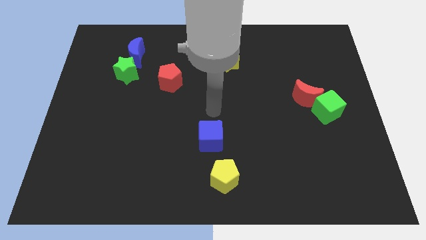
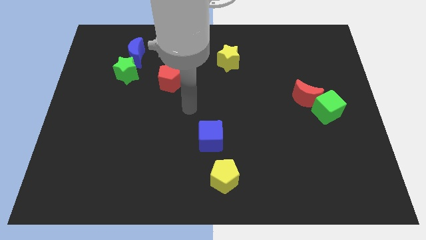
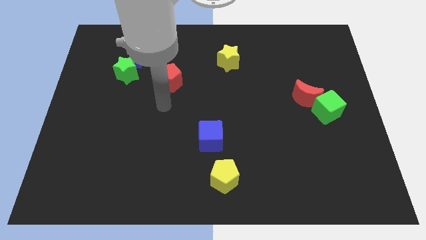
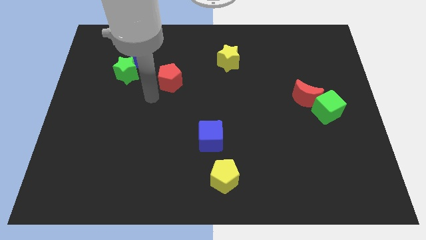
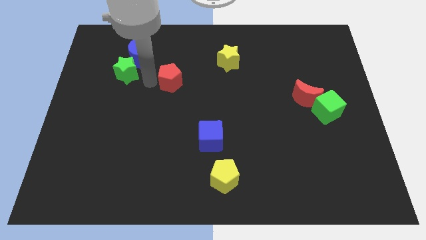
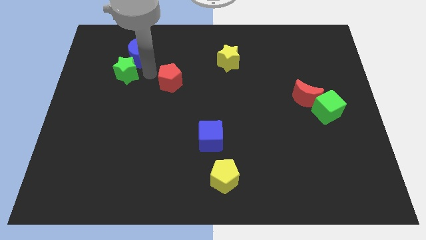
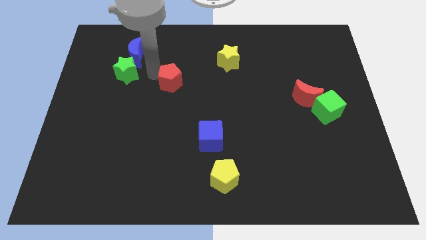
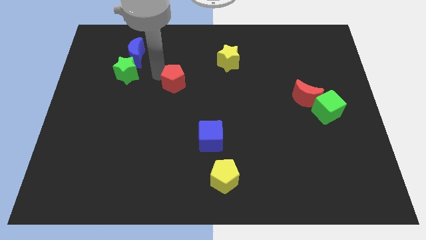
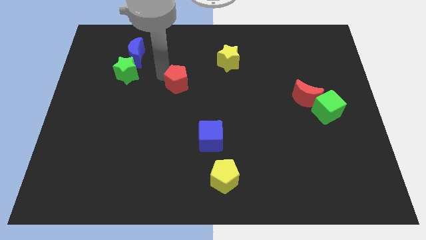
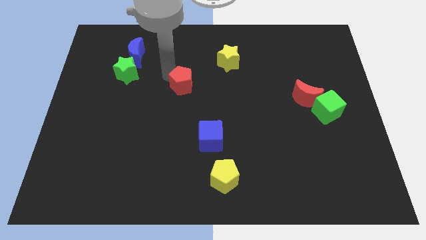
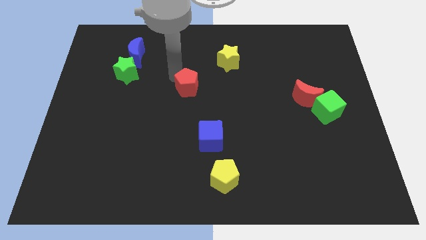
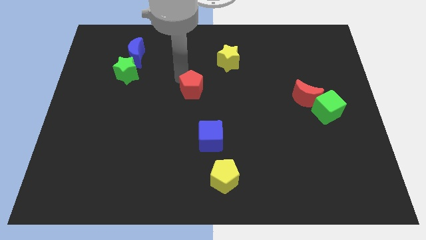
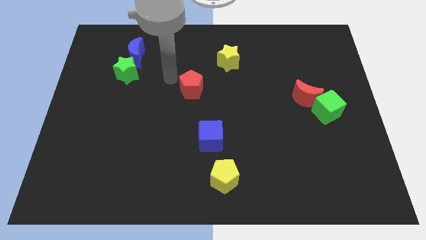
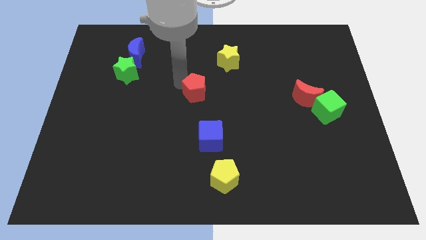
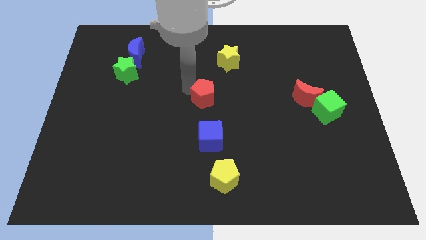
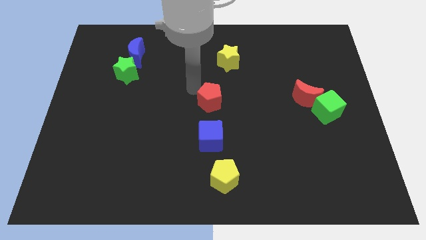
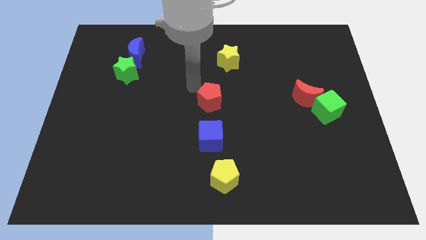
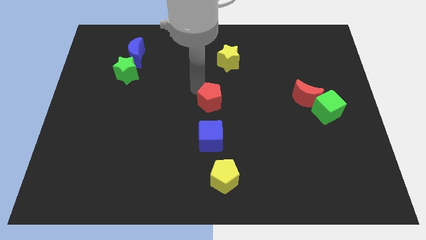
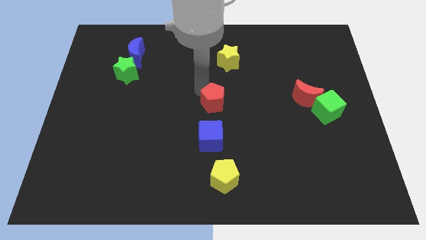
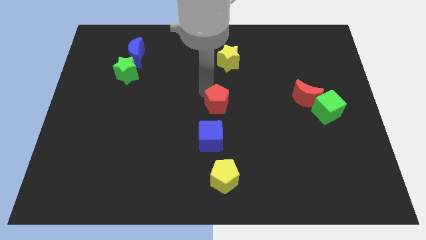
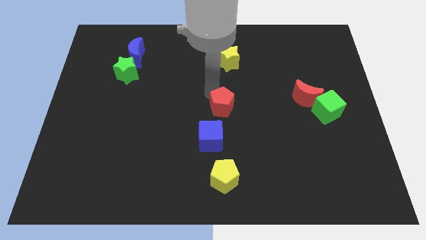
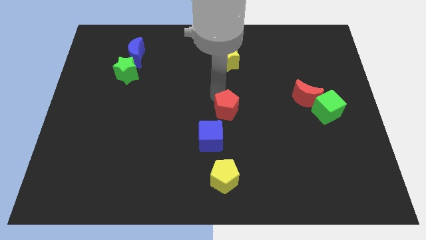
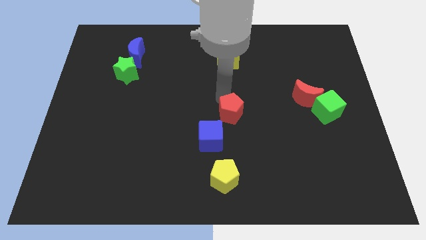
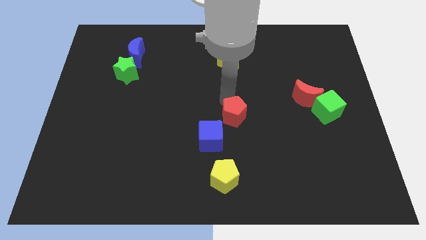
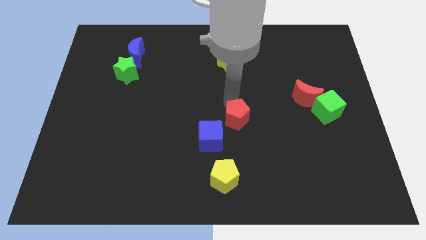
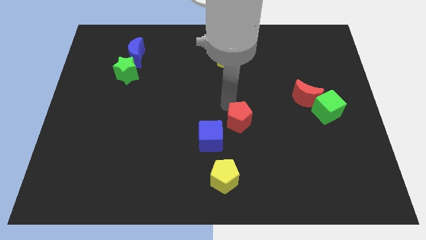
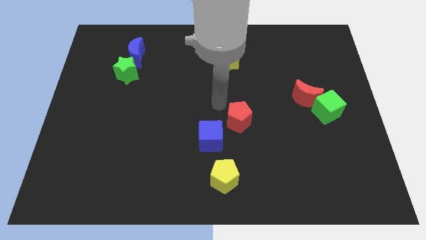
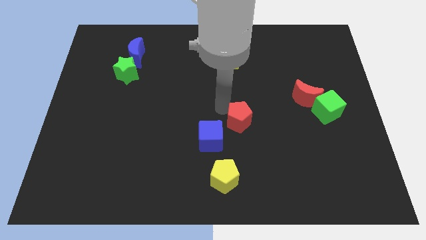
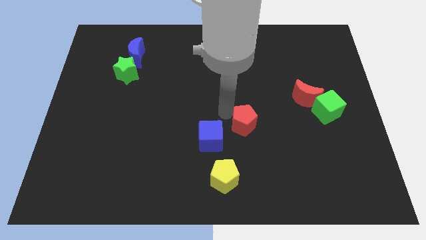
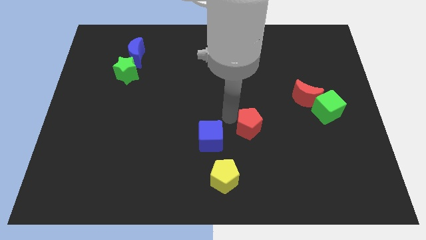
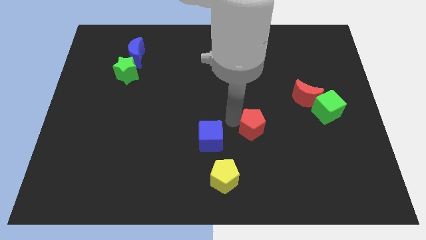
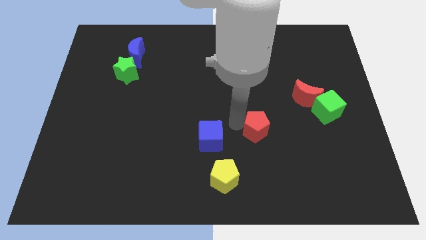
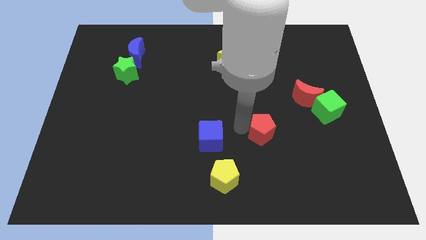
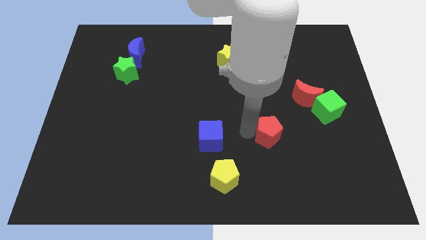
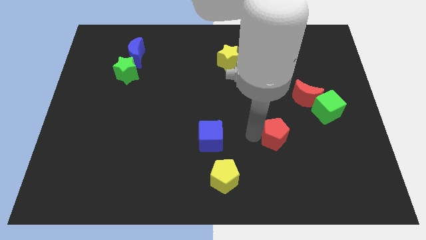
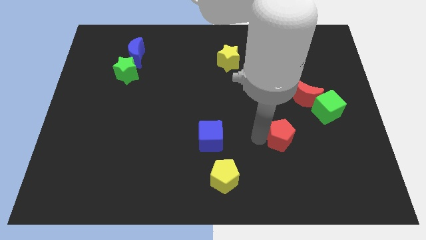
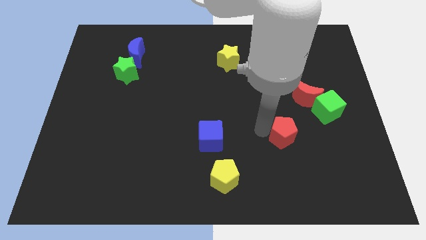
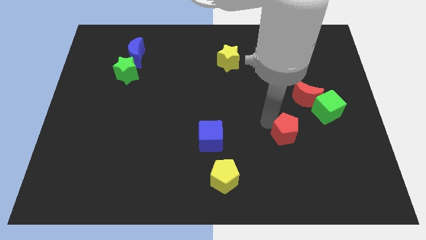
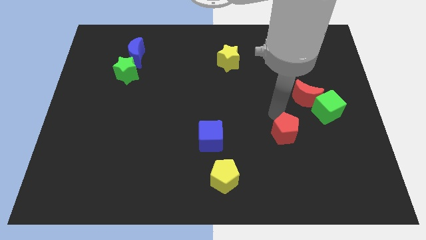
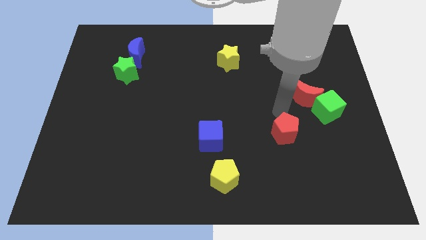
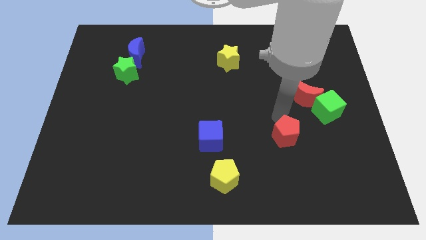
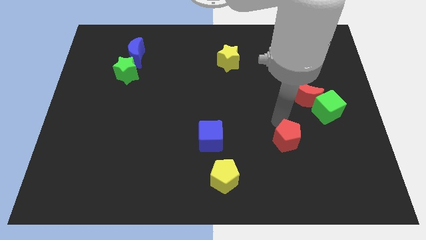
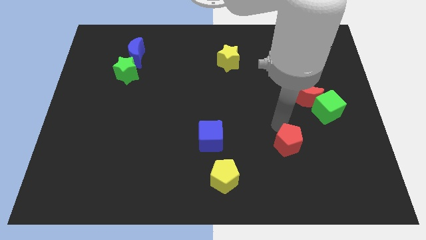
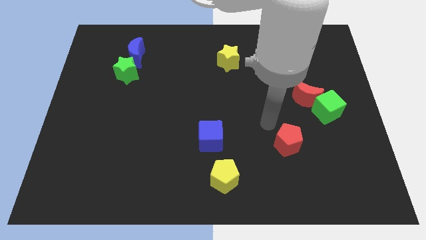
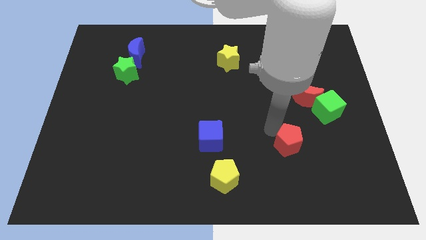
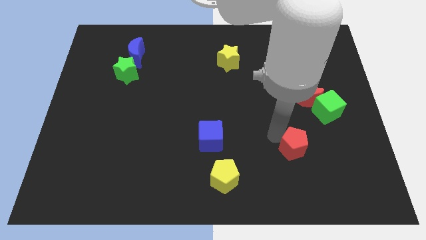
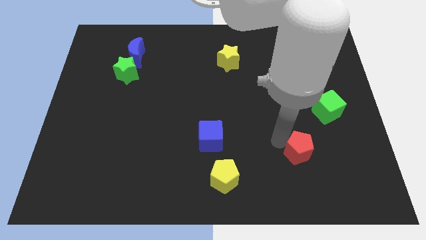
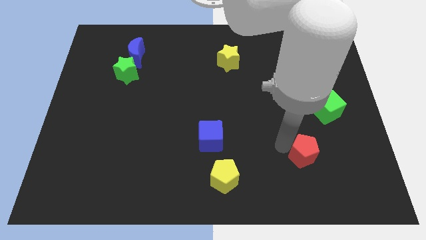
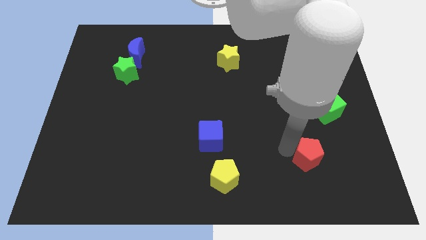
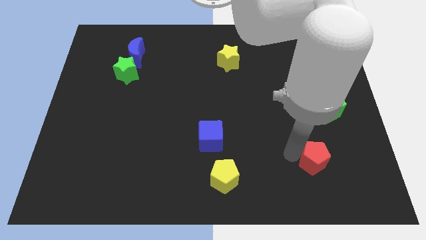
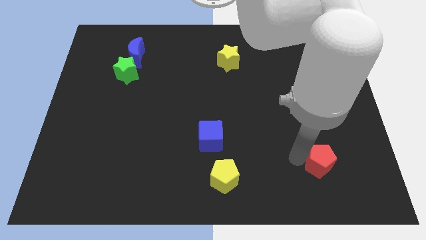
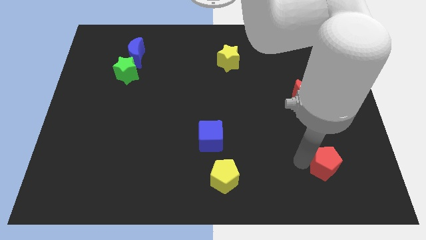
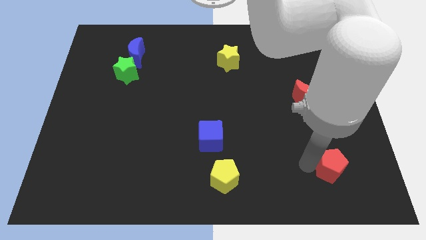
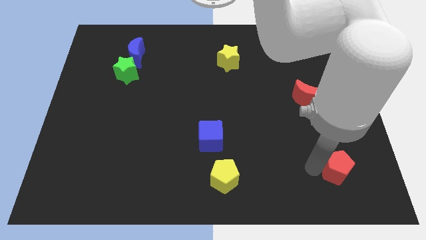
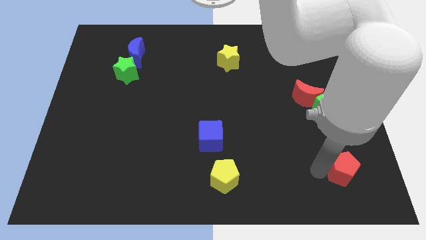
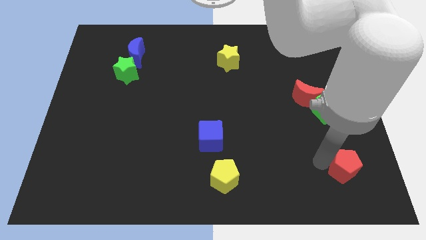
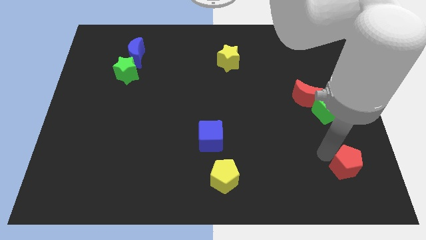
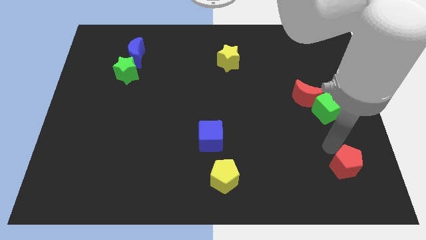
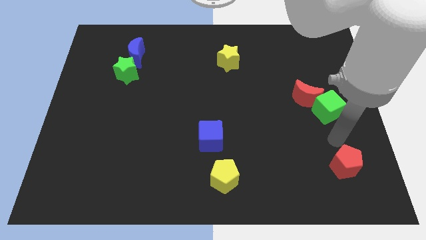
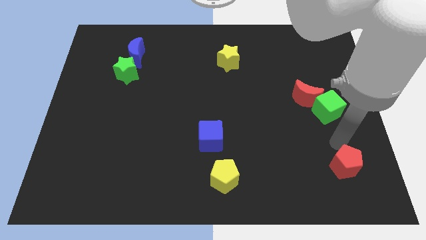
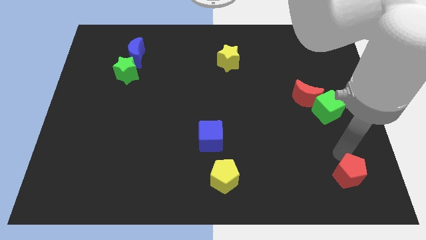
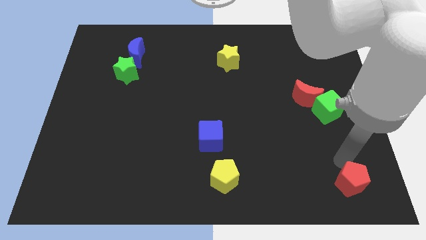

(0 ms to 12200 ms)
slide the red pentagon to the bottom right corner

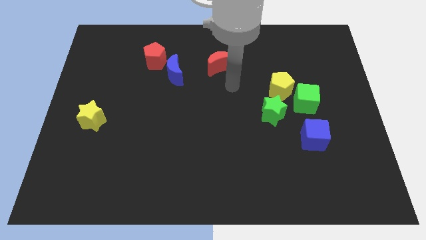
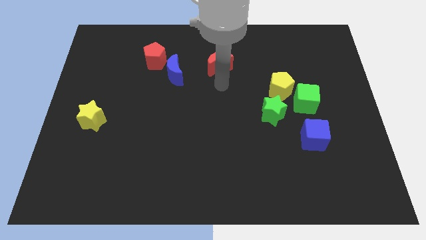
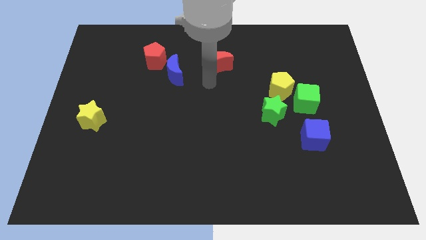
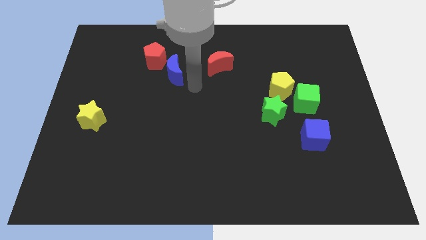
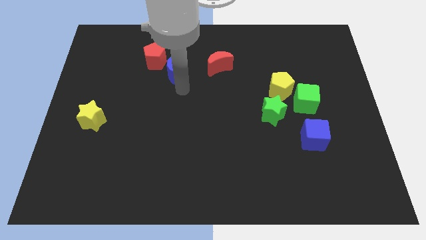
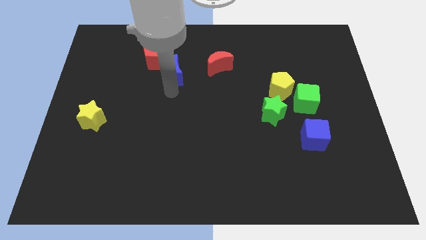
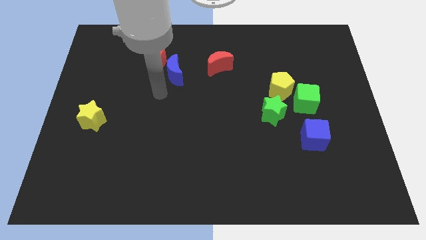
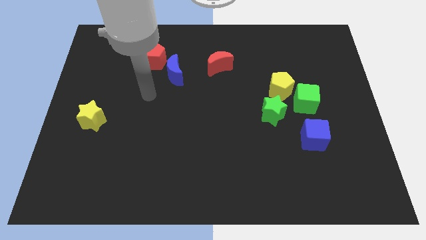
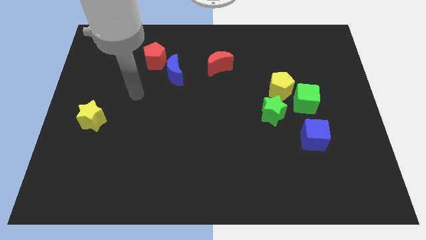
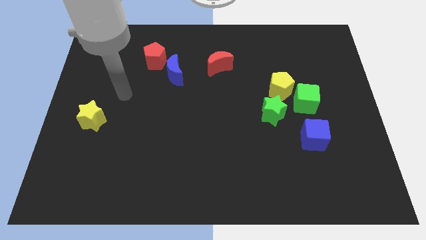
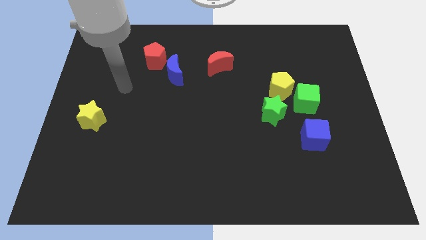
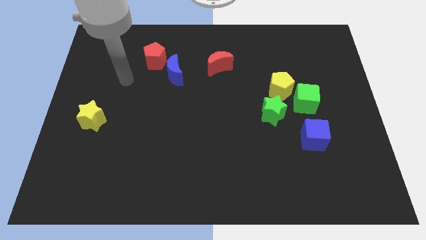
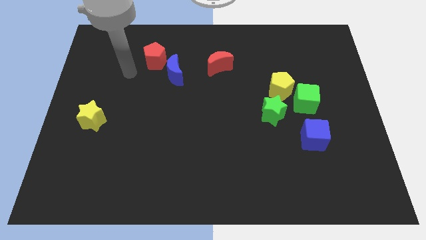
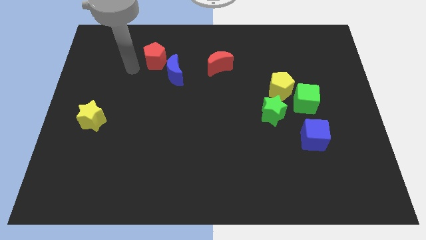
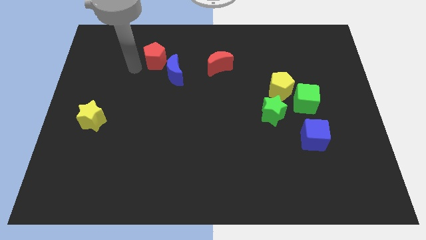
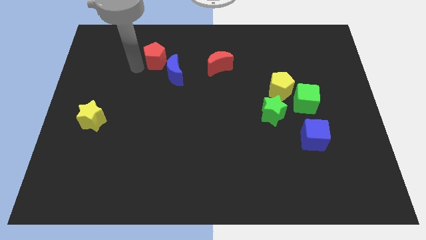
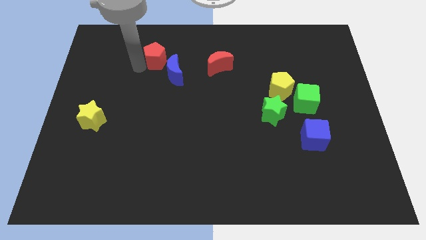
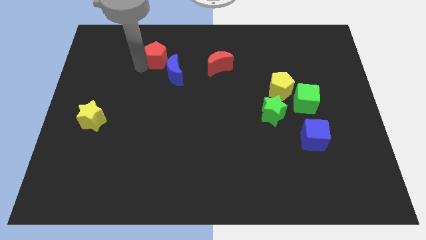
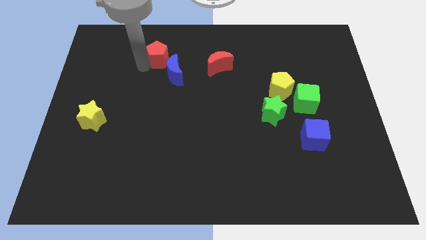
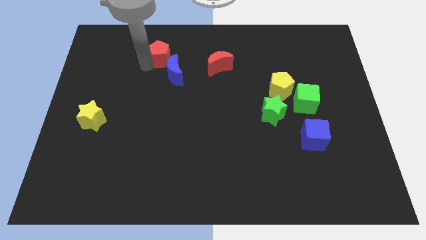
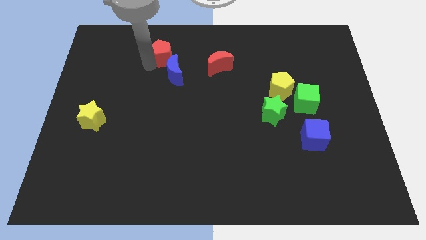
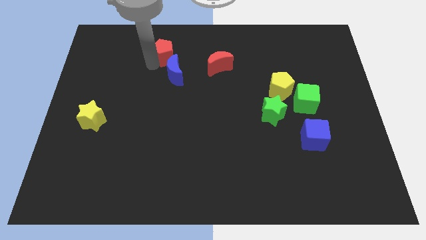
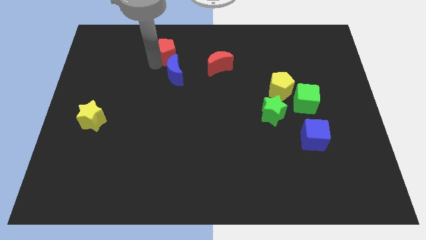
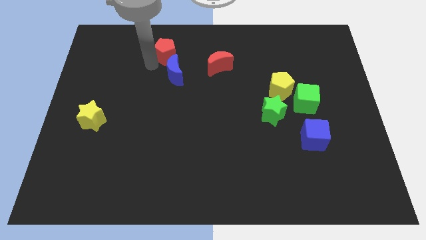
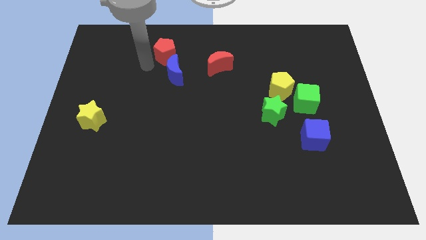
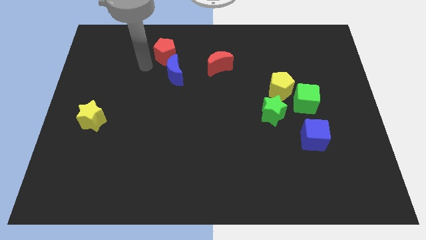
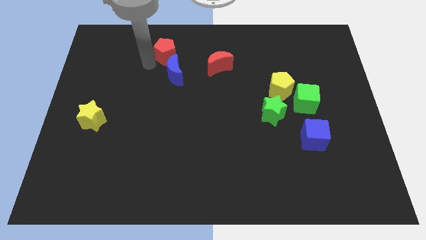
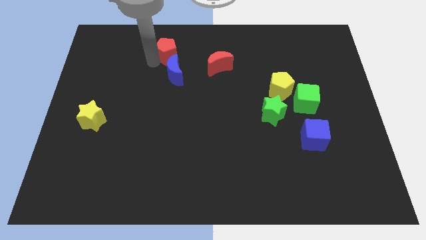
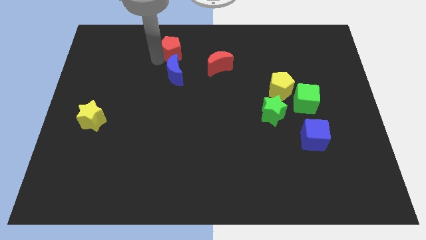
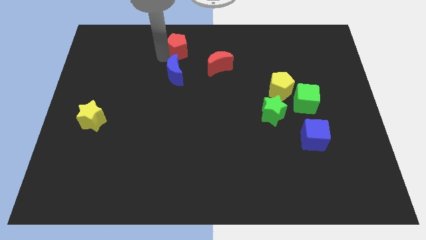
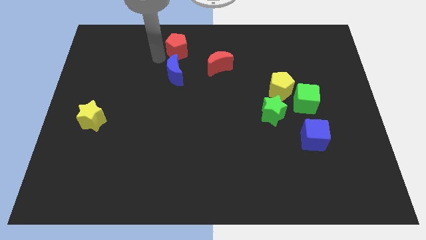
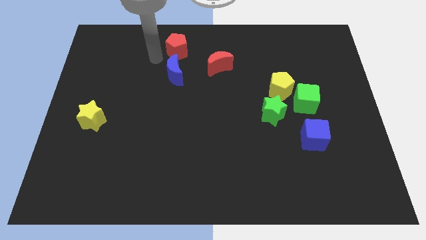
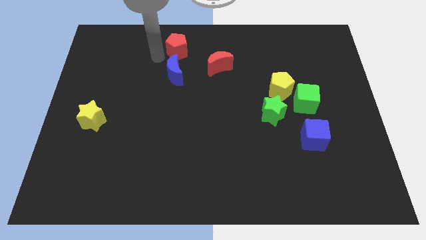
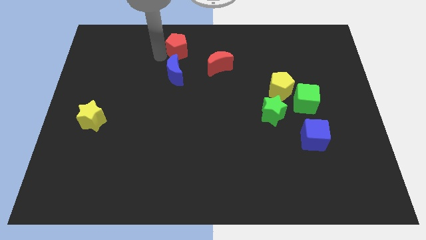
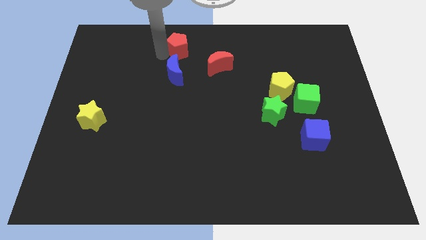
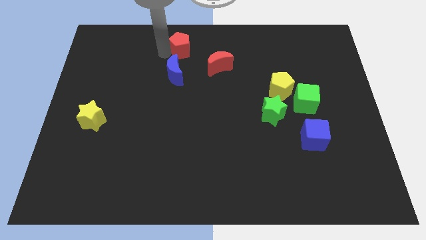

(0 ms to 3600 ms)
push the red pentagon to the top
